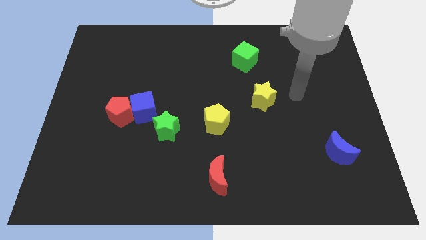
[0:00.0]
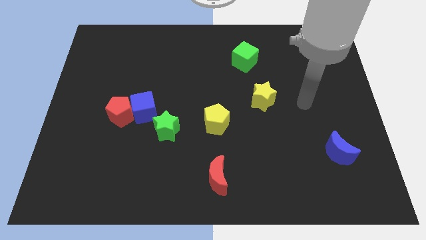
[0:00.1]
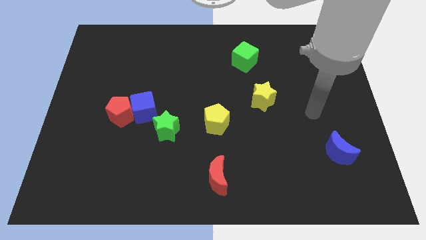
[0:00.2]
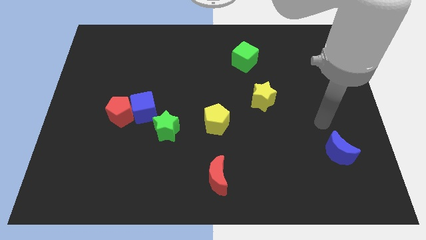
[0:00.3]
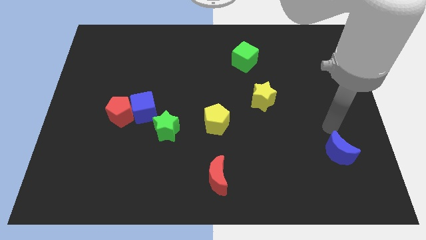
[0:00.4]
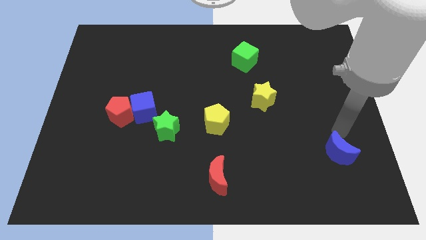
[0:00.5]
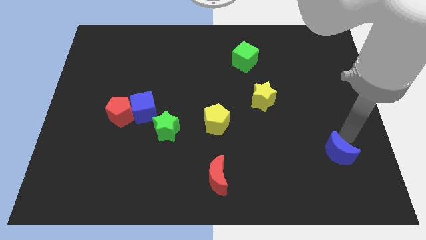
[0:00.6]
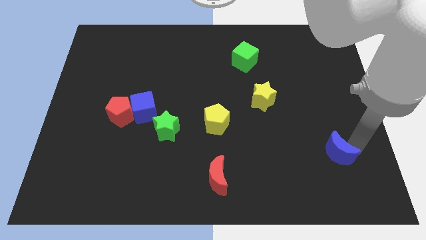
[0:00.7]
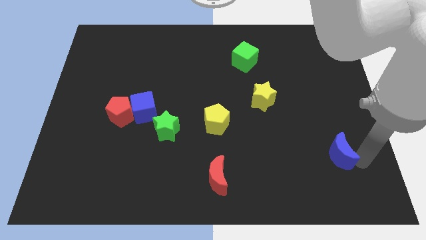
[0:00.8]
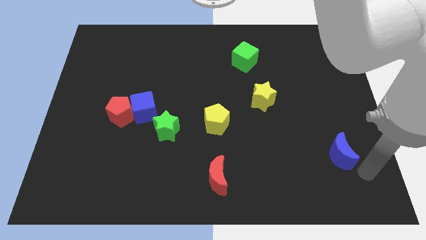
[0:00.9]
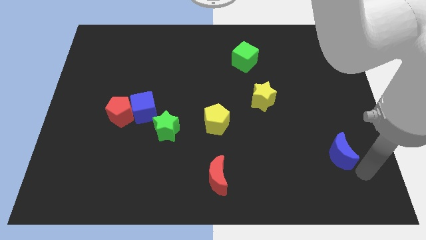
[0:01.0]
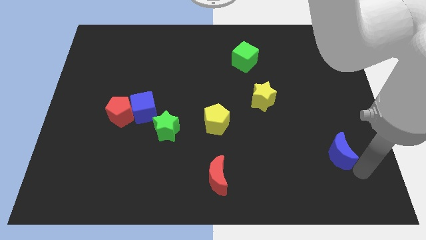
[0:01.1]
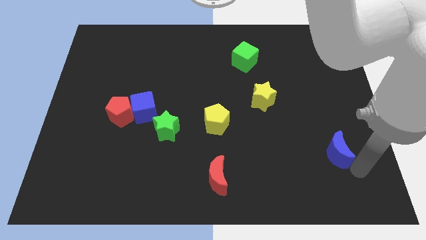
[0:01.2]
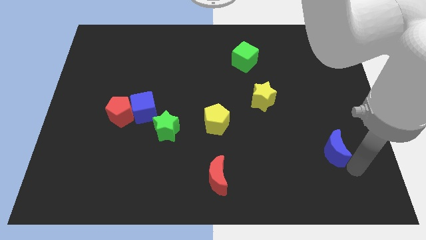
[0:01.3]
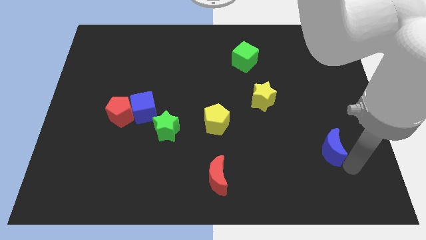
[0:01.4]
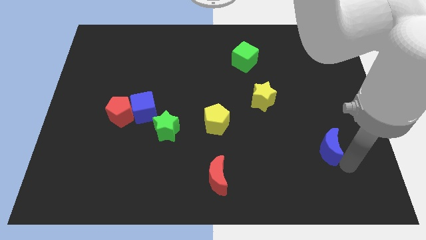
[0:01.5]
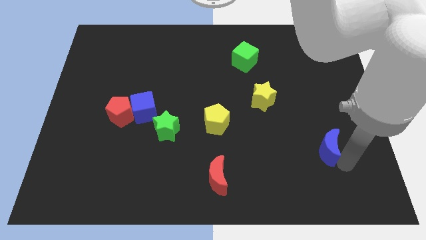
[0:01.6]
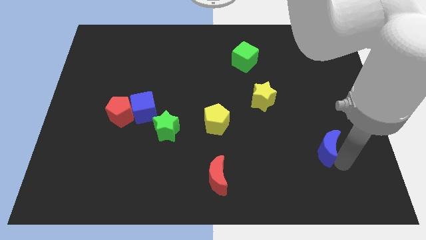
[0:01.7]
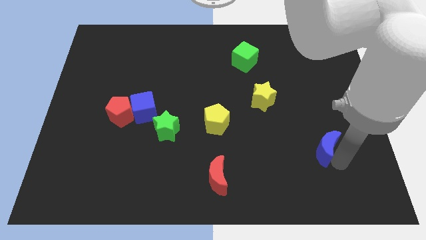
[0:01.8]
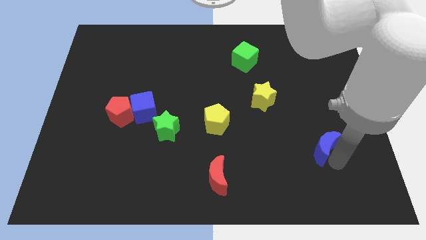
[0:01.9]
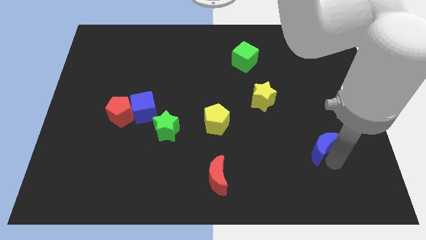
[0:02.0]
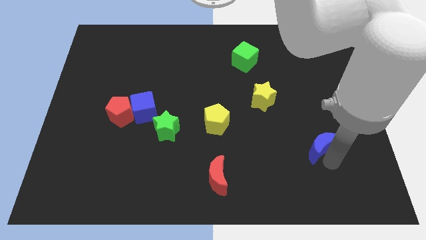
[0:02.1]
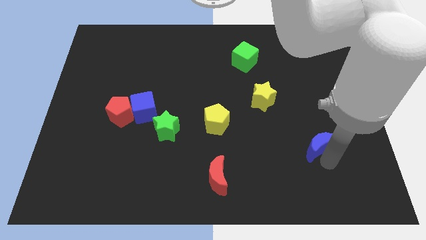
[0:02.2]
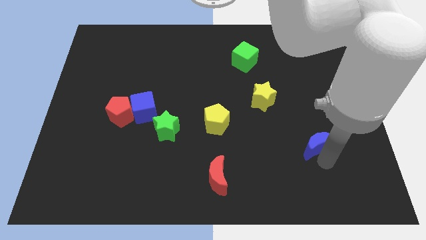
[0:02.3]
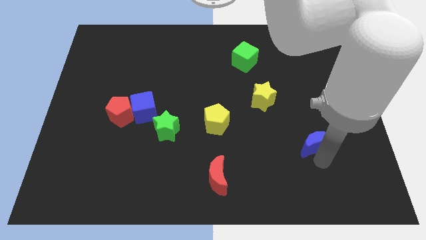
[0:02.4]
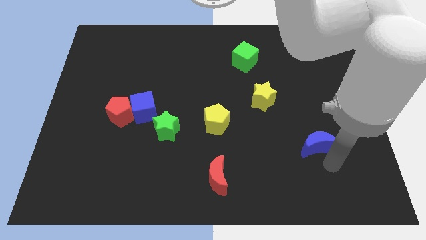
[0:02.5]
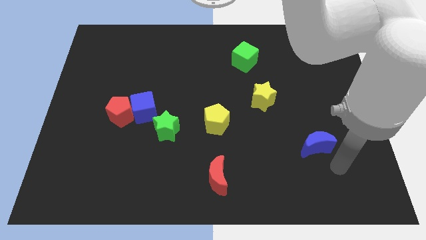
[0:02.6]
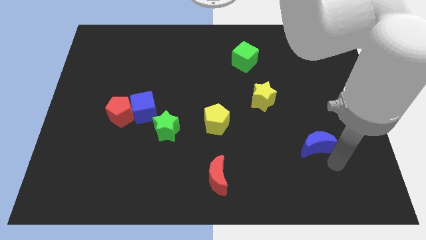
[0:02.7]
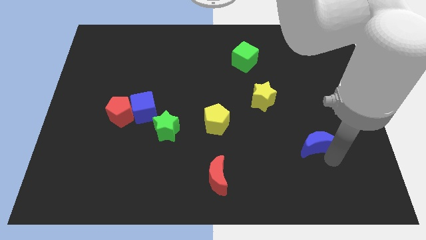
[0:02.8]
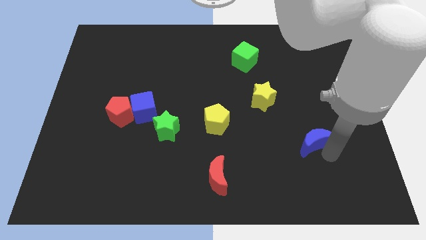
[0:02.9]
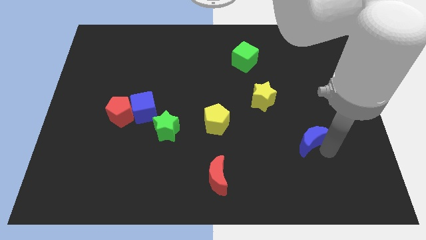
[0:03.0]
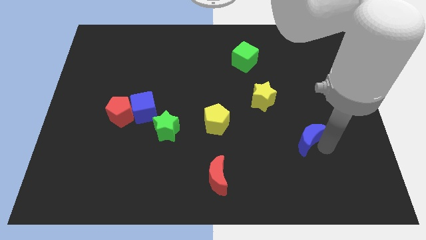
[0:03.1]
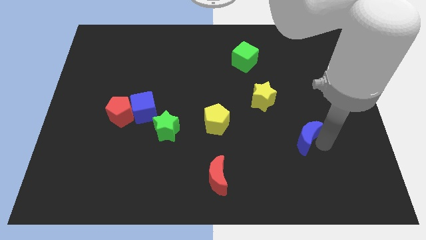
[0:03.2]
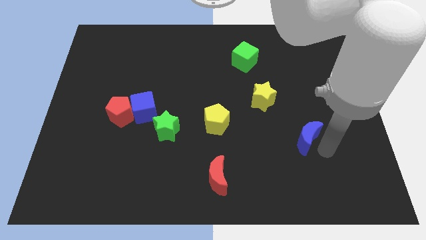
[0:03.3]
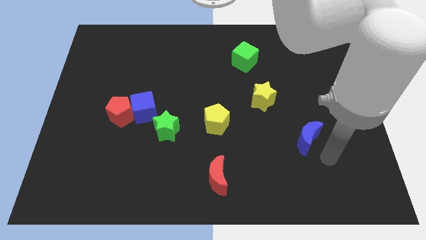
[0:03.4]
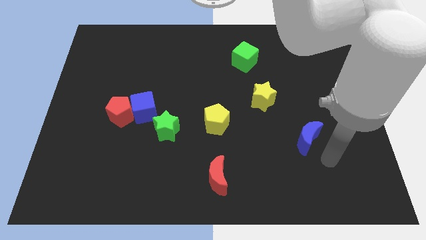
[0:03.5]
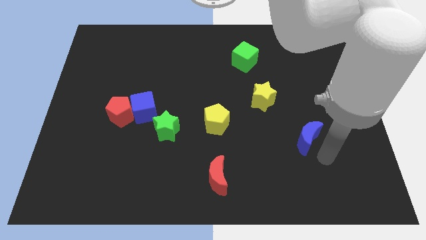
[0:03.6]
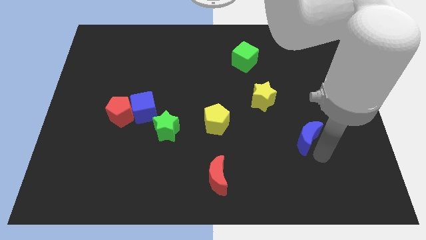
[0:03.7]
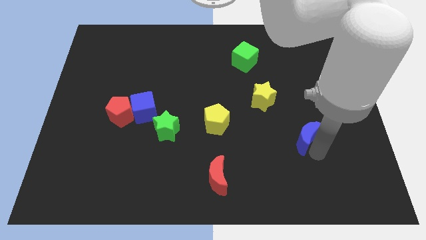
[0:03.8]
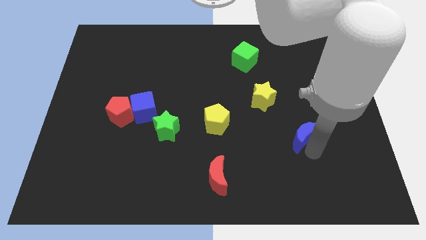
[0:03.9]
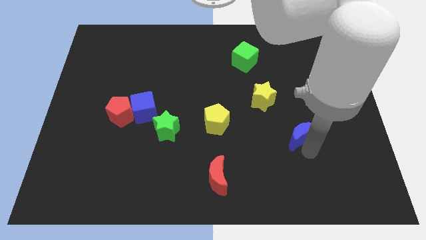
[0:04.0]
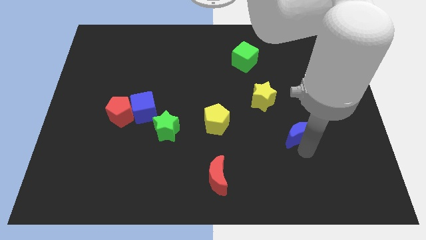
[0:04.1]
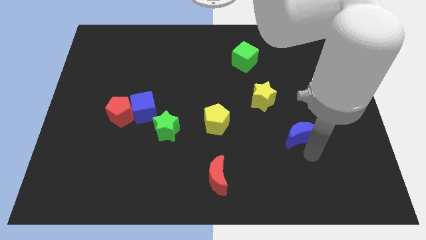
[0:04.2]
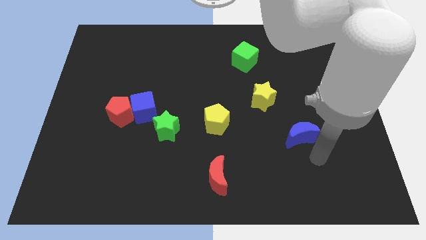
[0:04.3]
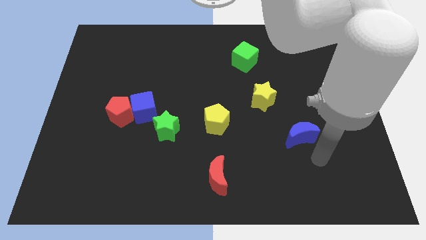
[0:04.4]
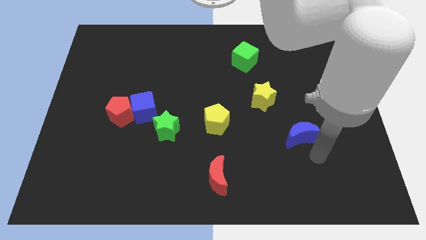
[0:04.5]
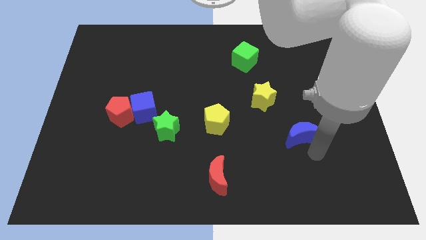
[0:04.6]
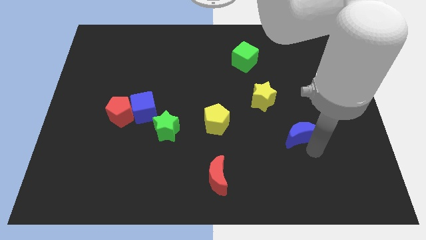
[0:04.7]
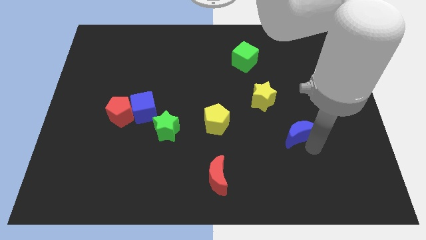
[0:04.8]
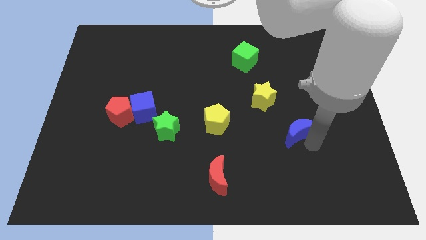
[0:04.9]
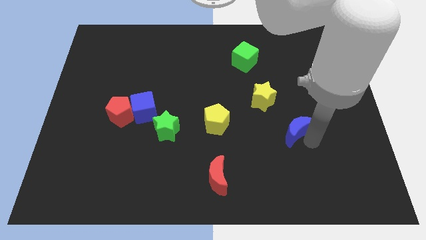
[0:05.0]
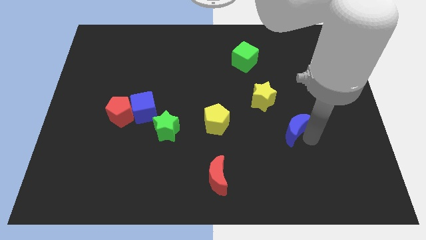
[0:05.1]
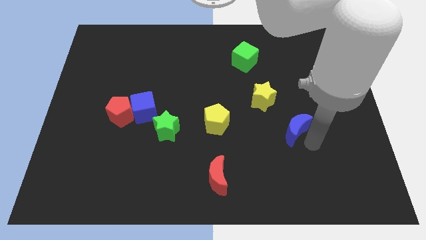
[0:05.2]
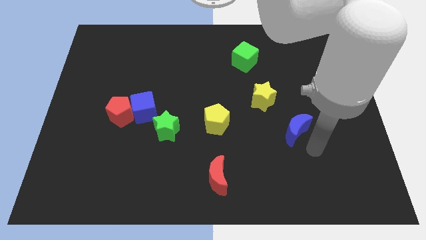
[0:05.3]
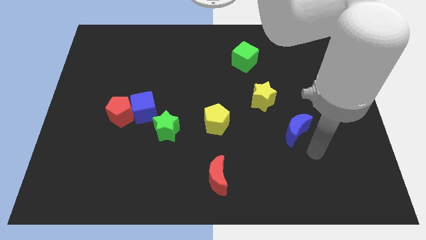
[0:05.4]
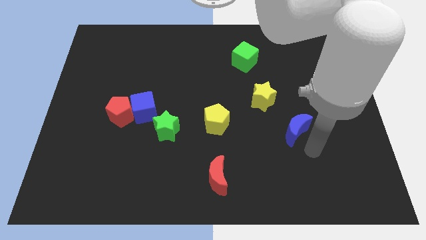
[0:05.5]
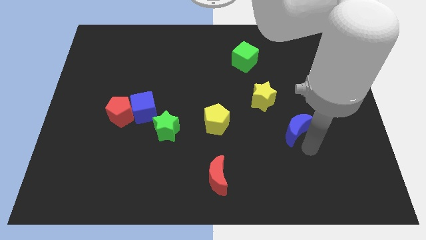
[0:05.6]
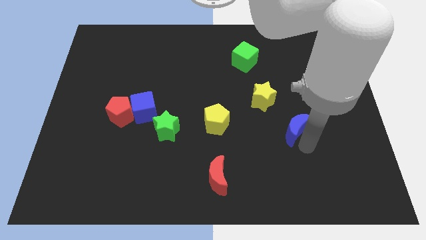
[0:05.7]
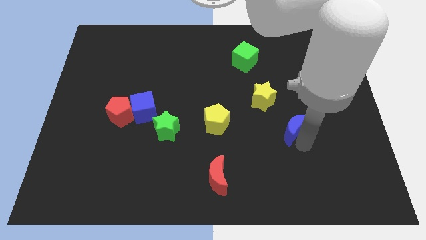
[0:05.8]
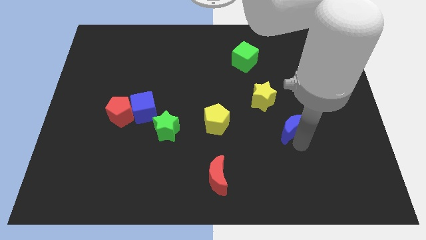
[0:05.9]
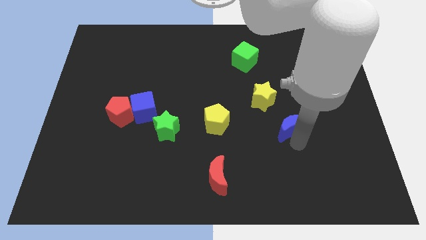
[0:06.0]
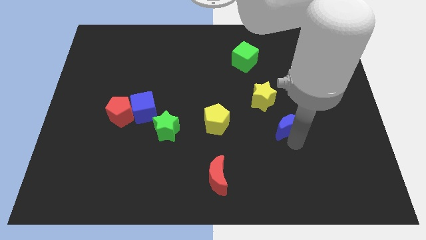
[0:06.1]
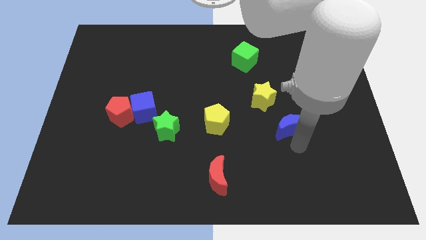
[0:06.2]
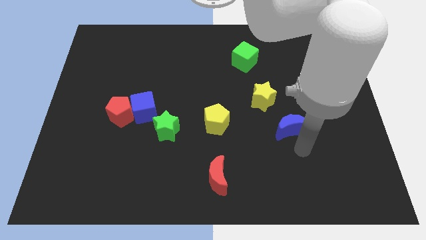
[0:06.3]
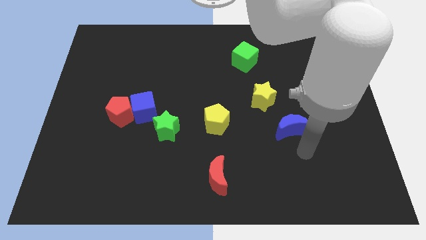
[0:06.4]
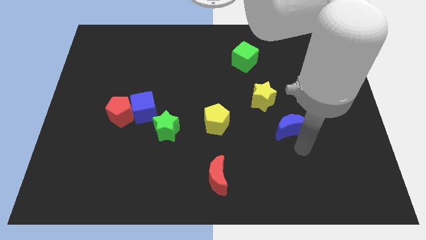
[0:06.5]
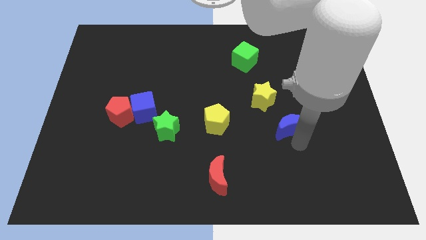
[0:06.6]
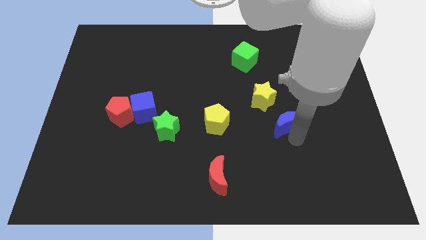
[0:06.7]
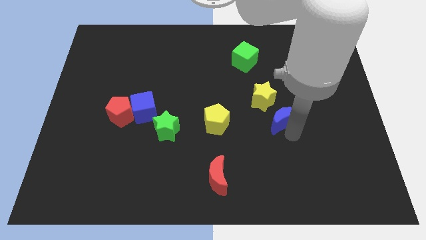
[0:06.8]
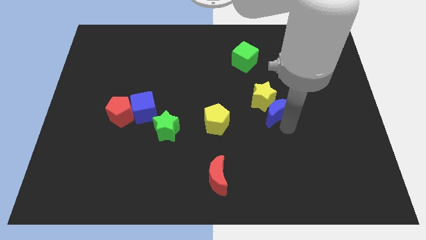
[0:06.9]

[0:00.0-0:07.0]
move the blue moon next to the yellow star
